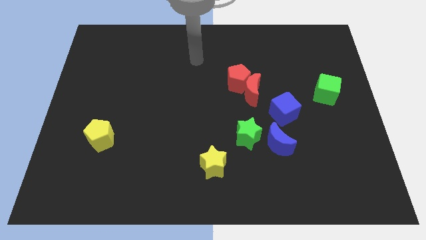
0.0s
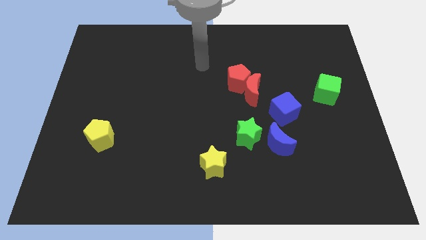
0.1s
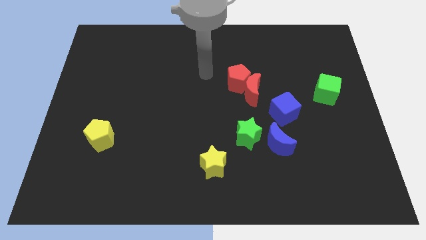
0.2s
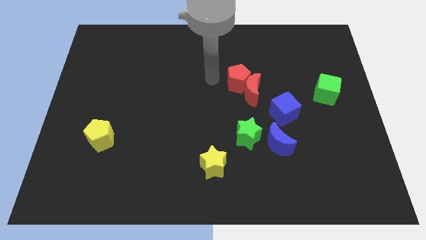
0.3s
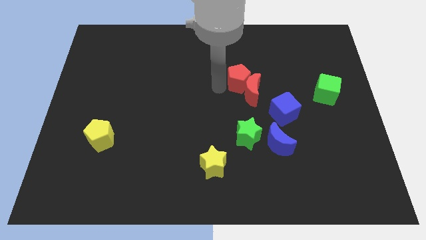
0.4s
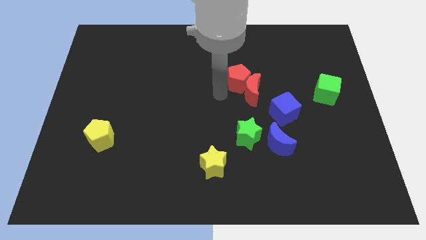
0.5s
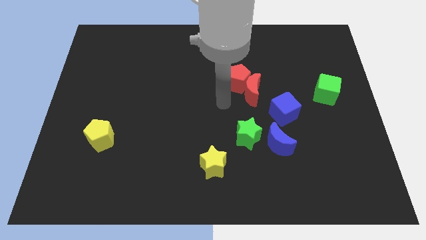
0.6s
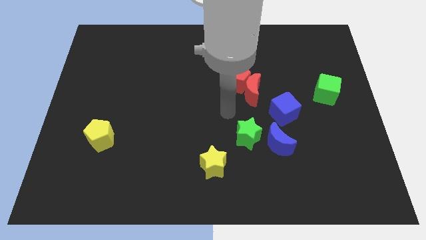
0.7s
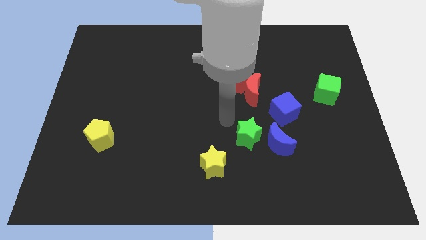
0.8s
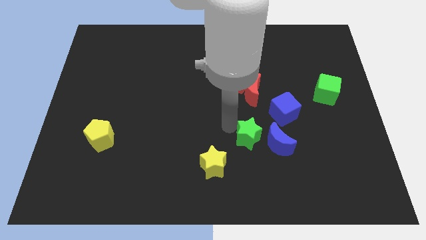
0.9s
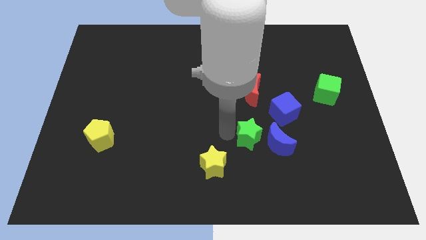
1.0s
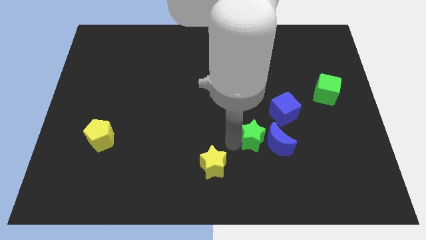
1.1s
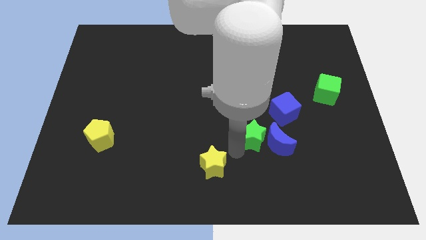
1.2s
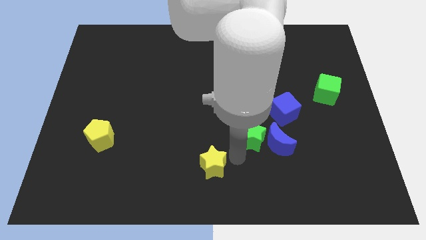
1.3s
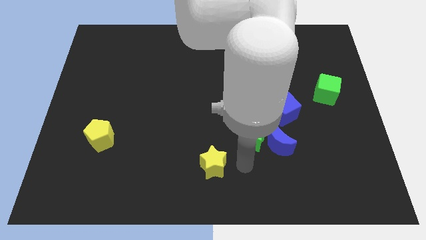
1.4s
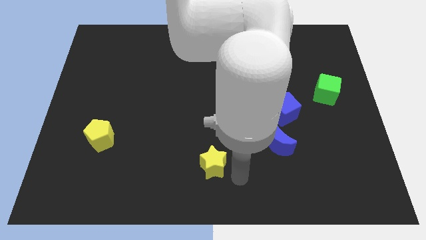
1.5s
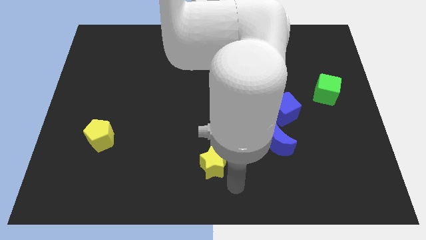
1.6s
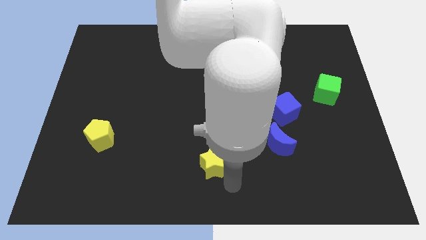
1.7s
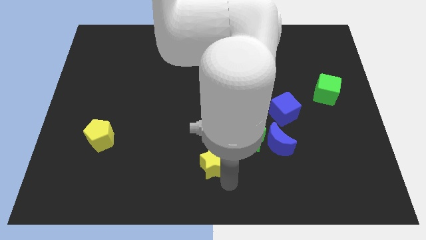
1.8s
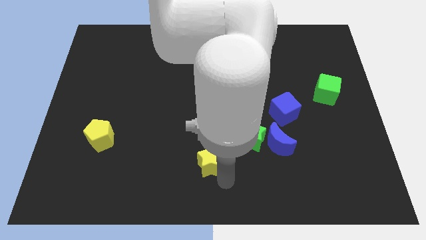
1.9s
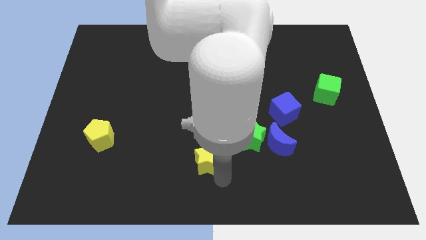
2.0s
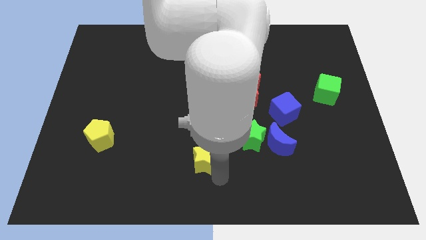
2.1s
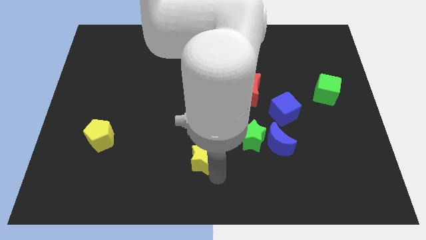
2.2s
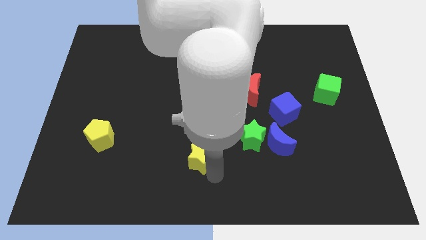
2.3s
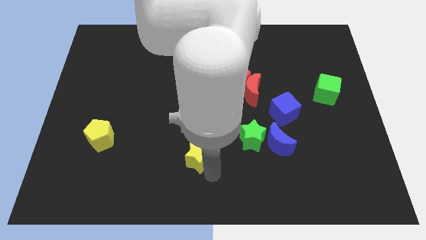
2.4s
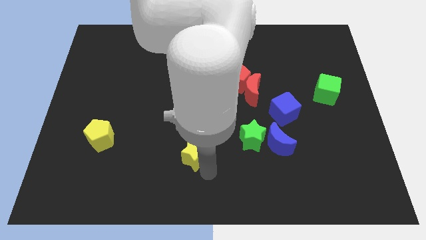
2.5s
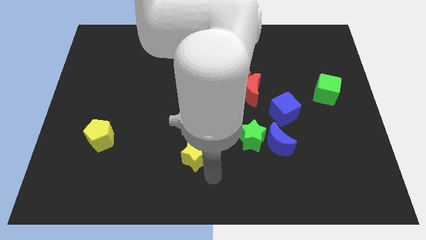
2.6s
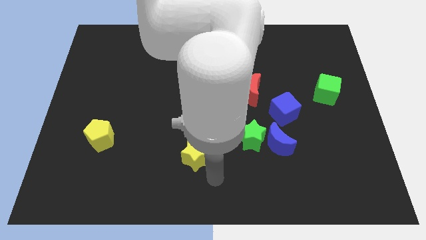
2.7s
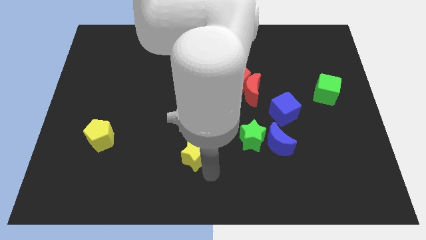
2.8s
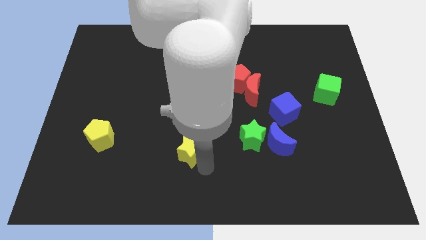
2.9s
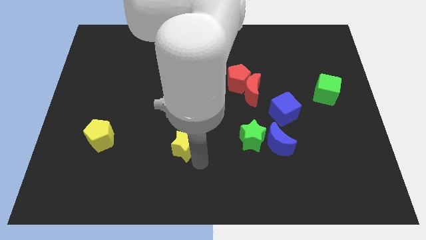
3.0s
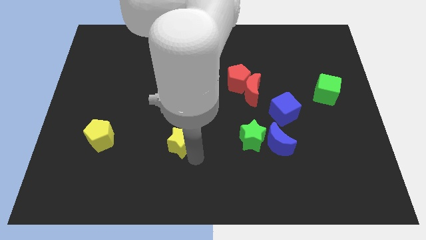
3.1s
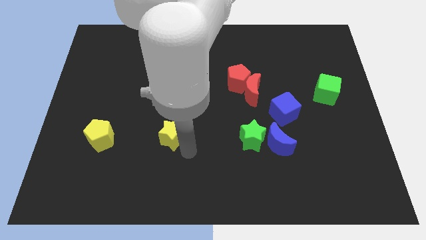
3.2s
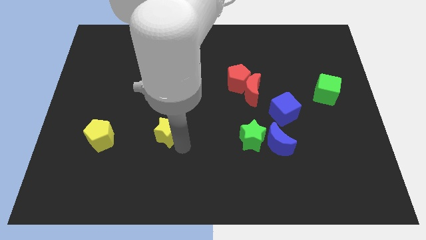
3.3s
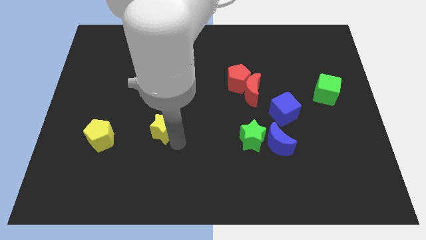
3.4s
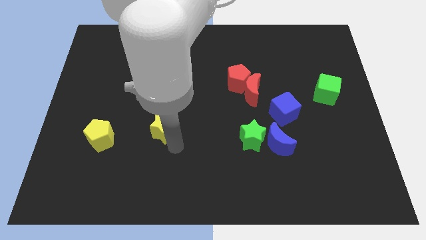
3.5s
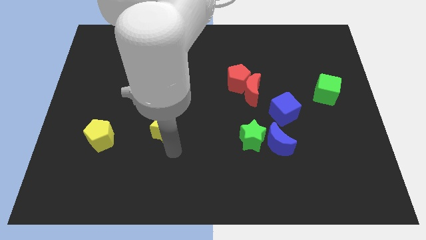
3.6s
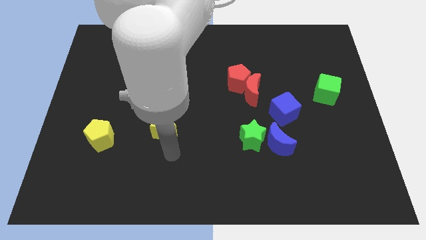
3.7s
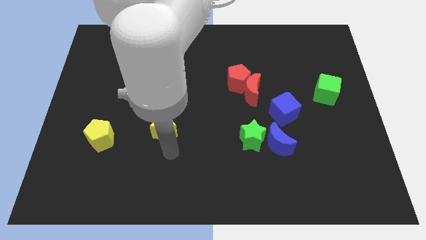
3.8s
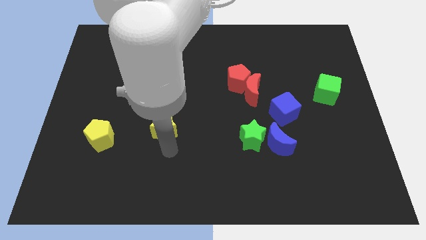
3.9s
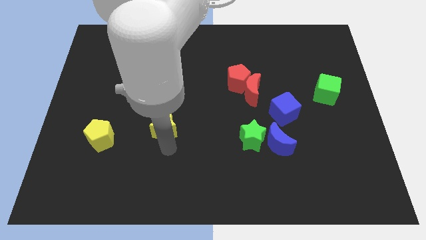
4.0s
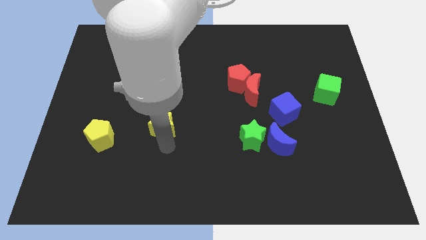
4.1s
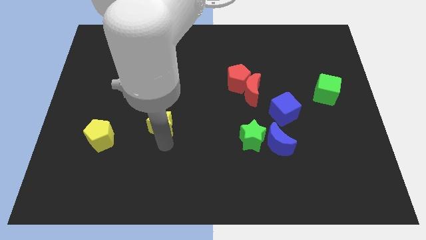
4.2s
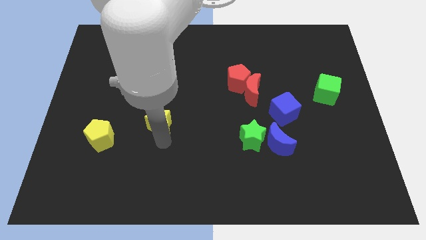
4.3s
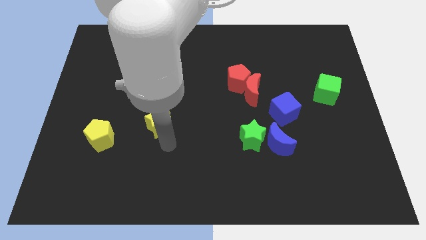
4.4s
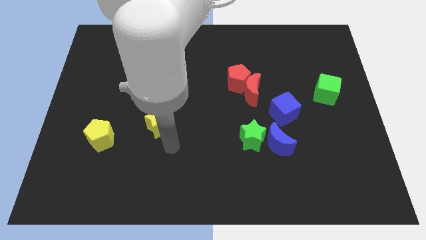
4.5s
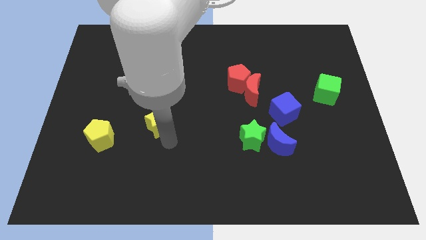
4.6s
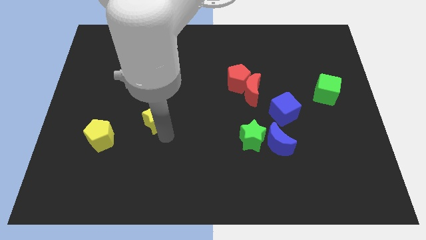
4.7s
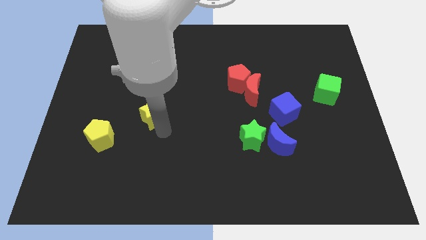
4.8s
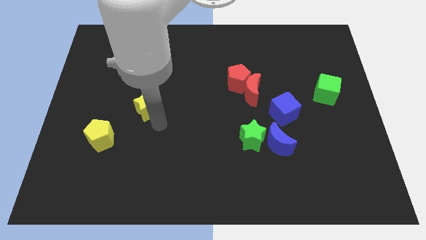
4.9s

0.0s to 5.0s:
slide the yellow star up and then to the left

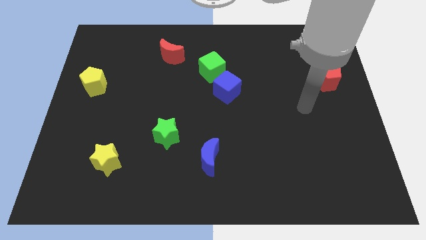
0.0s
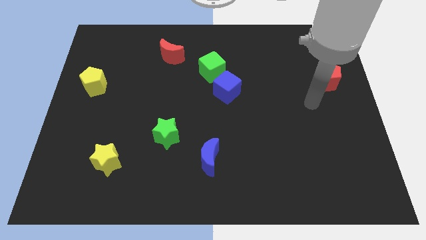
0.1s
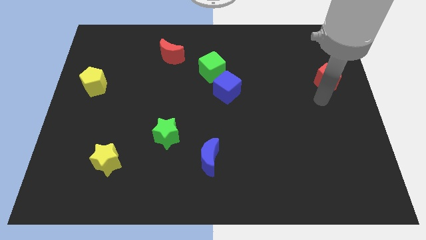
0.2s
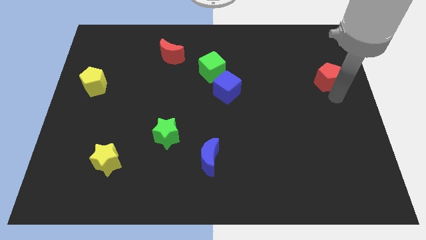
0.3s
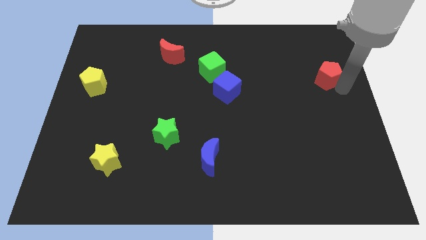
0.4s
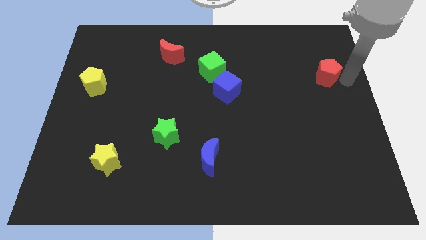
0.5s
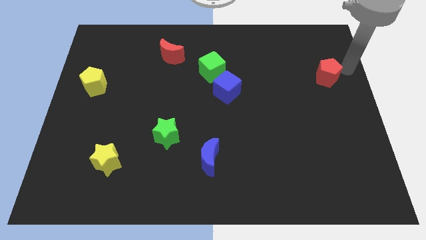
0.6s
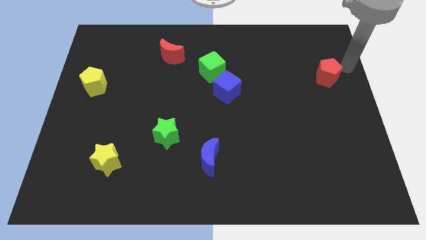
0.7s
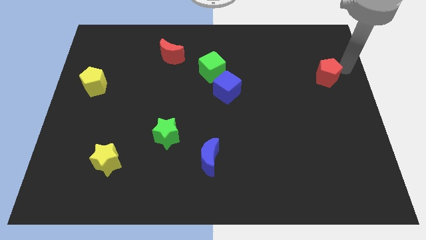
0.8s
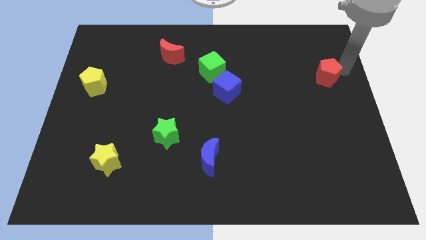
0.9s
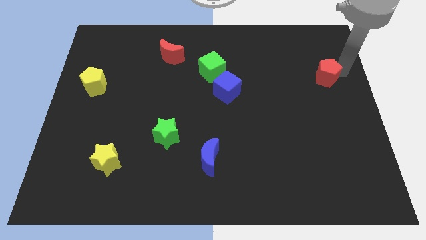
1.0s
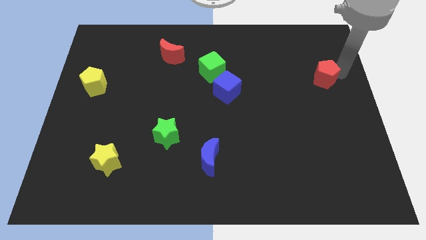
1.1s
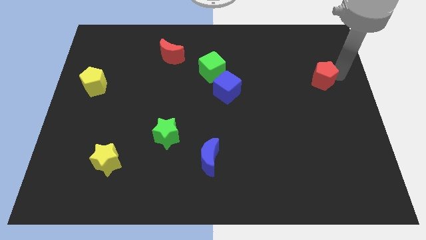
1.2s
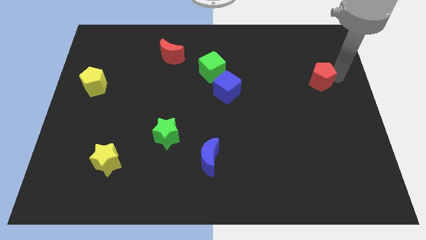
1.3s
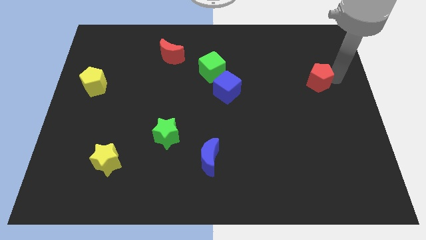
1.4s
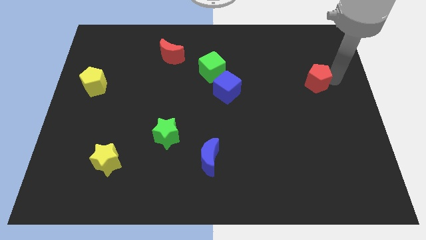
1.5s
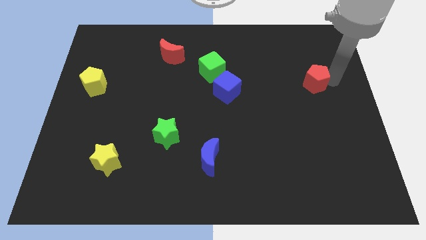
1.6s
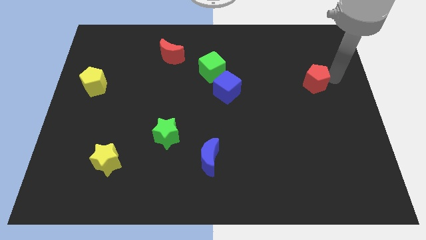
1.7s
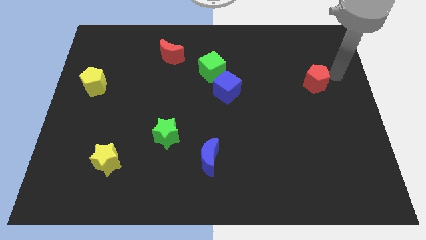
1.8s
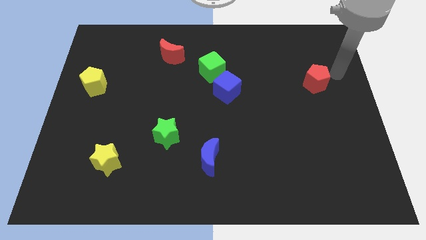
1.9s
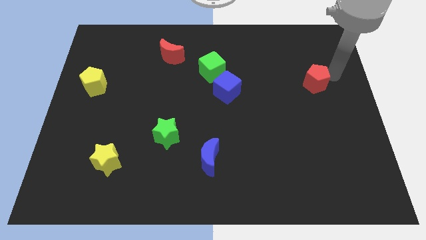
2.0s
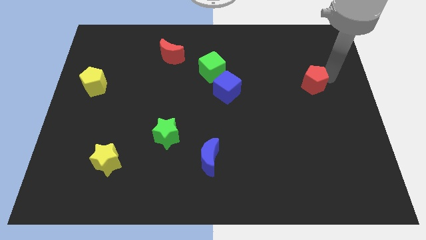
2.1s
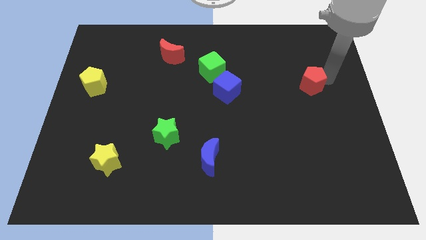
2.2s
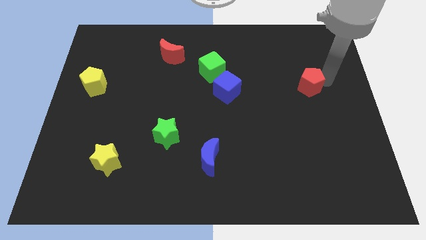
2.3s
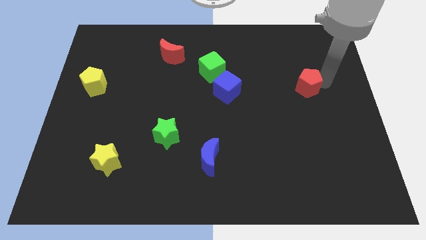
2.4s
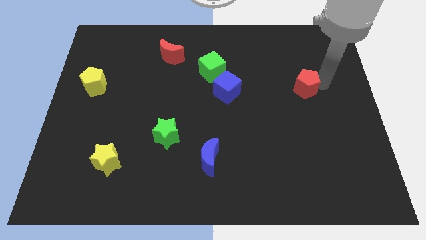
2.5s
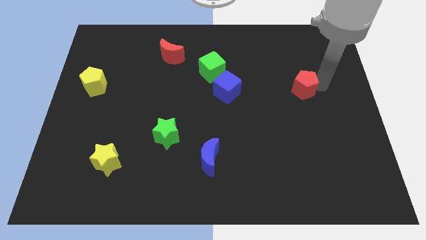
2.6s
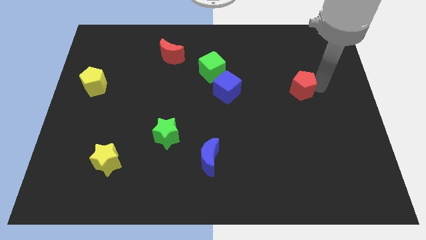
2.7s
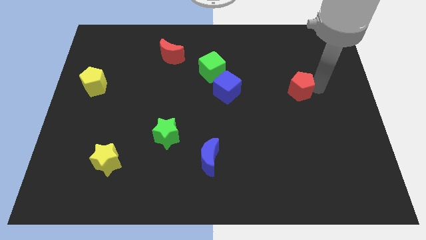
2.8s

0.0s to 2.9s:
move the red pentagon left a bit

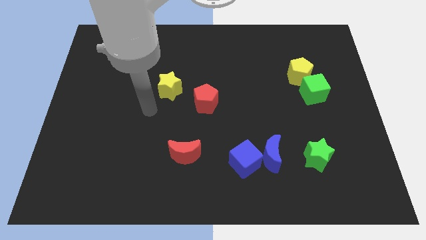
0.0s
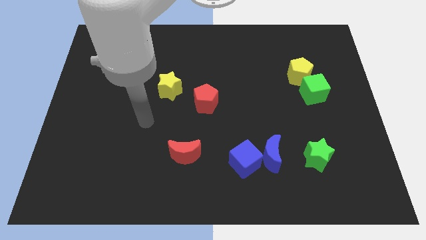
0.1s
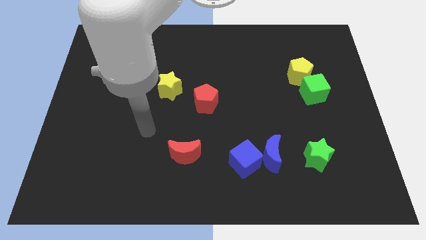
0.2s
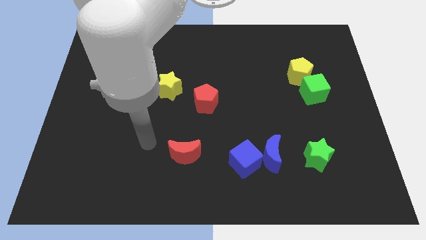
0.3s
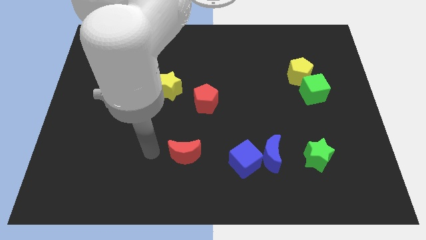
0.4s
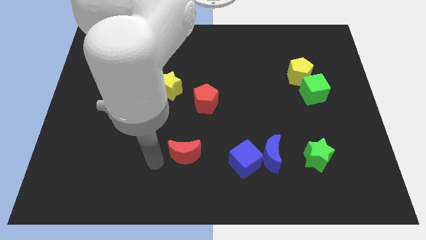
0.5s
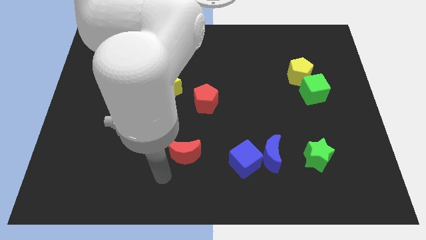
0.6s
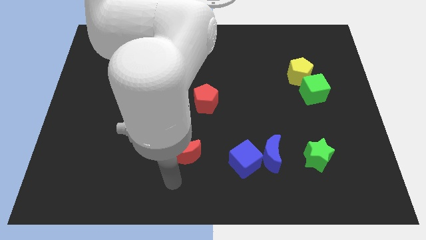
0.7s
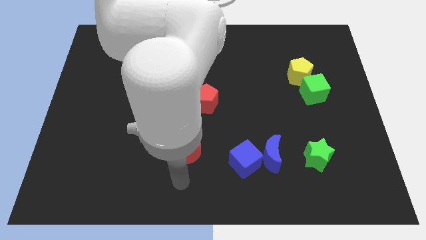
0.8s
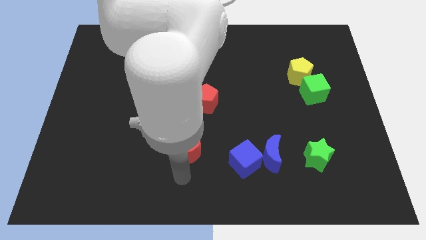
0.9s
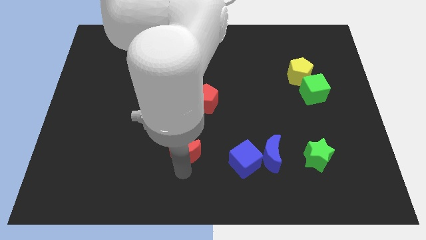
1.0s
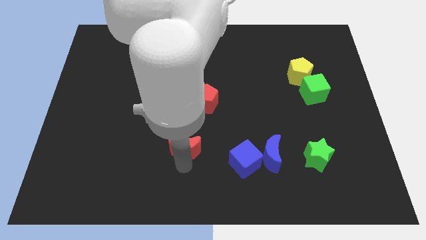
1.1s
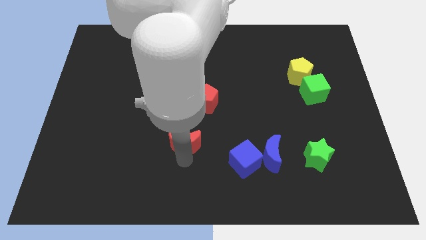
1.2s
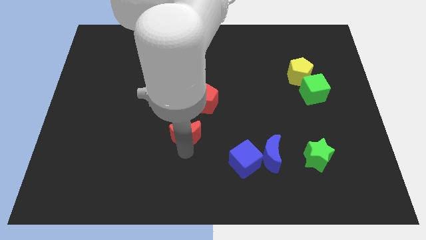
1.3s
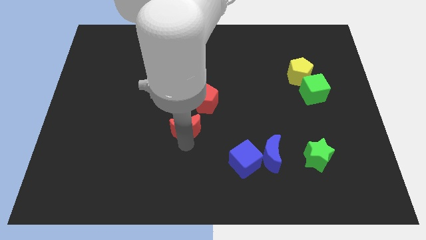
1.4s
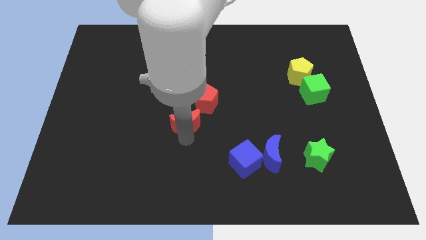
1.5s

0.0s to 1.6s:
slide the red moon slightly upwards
